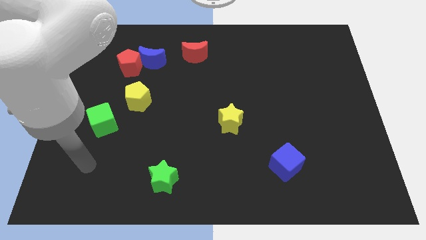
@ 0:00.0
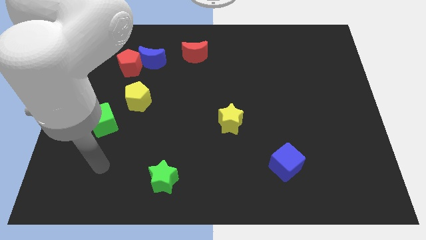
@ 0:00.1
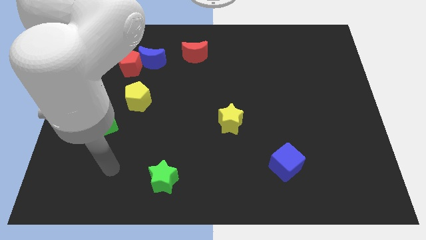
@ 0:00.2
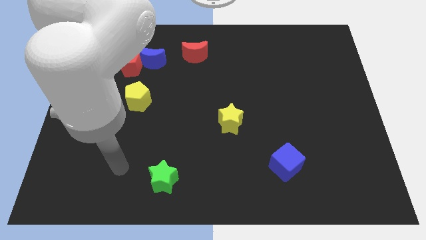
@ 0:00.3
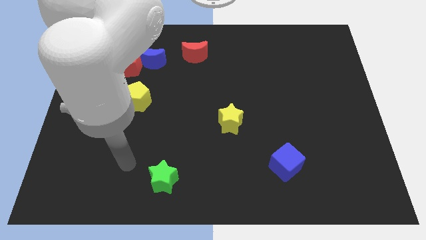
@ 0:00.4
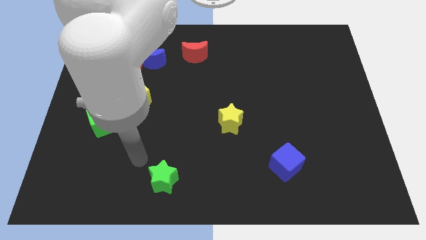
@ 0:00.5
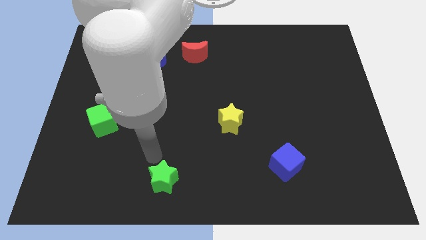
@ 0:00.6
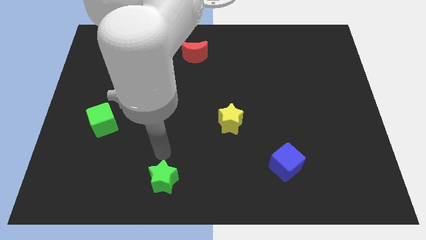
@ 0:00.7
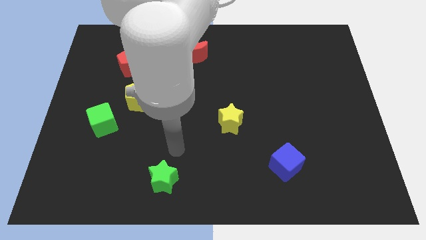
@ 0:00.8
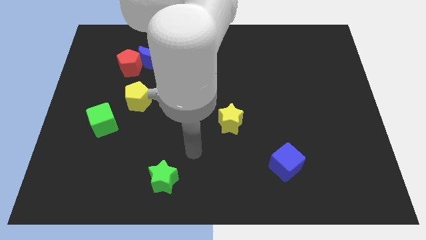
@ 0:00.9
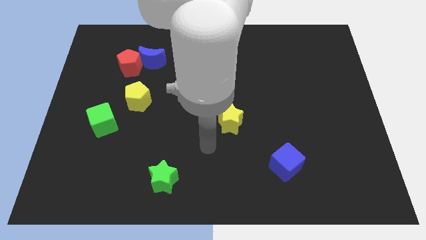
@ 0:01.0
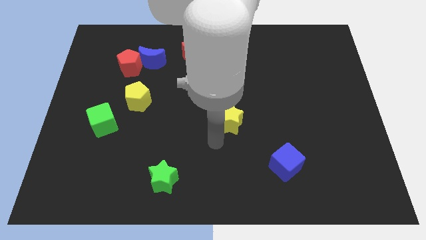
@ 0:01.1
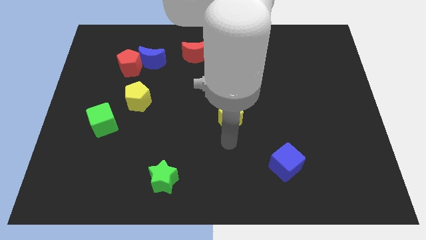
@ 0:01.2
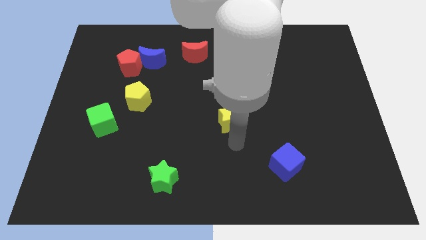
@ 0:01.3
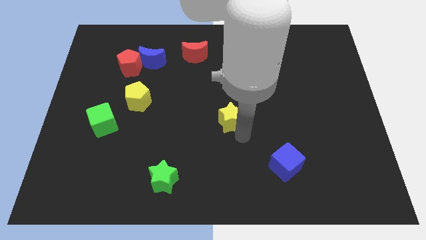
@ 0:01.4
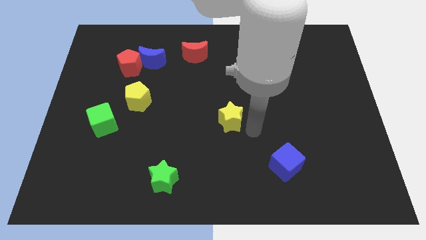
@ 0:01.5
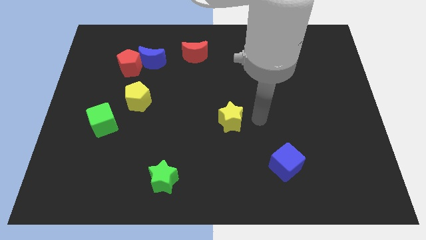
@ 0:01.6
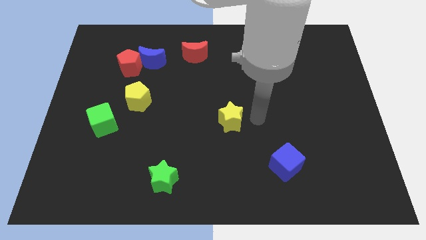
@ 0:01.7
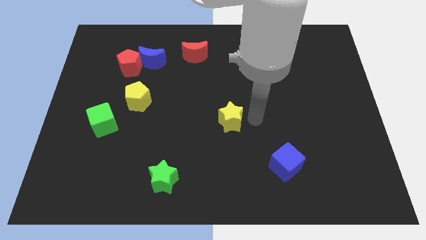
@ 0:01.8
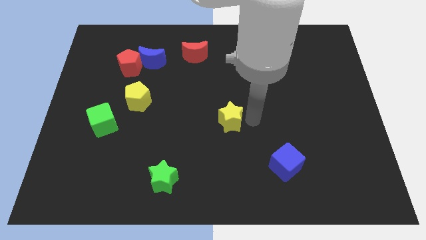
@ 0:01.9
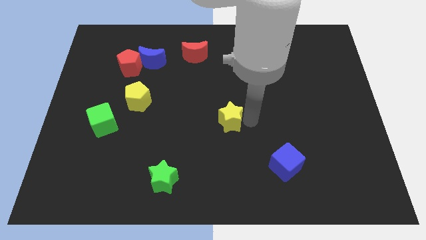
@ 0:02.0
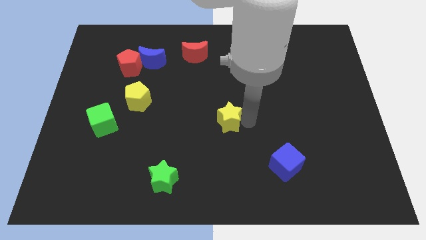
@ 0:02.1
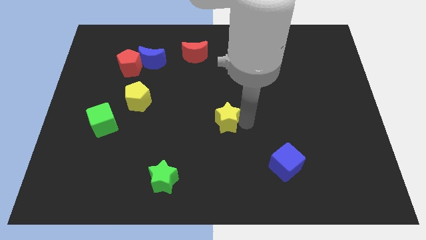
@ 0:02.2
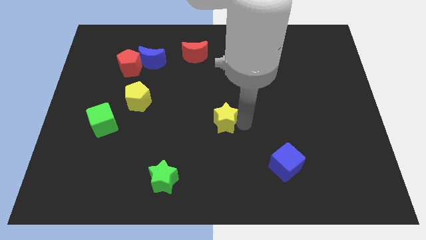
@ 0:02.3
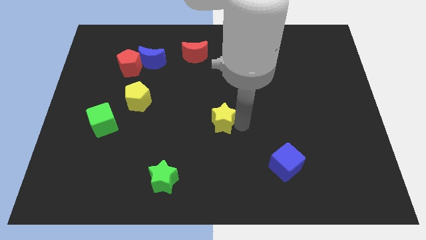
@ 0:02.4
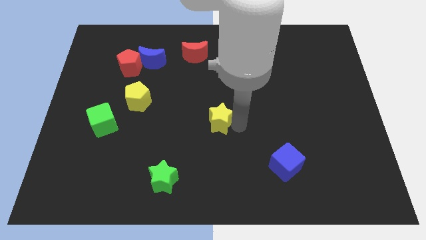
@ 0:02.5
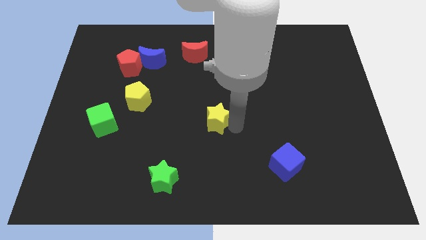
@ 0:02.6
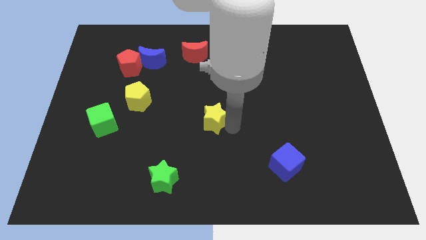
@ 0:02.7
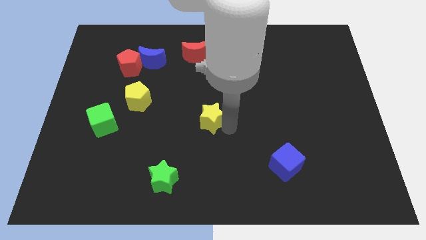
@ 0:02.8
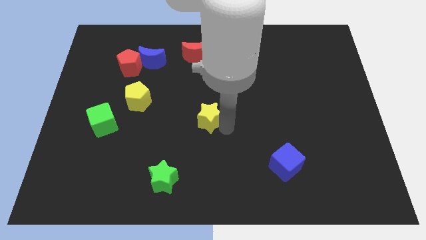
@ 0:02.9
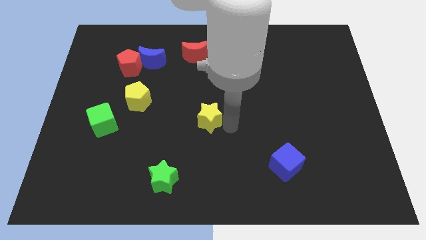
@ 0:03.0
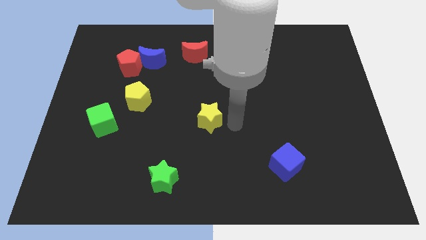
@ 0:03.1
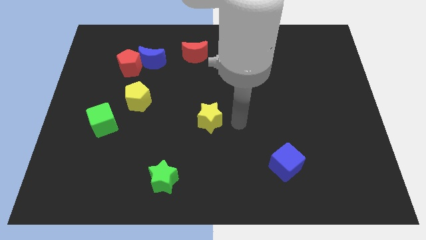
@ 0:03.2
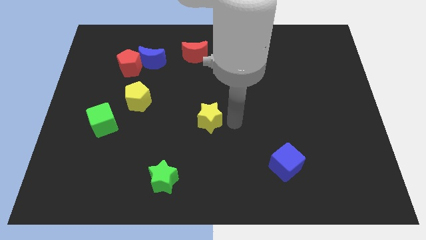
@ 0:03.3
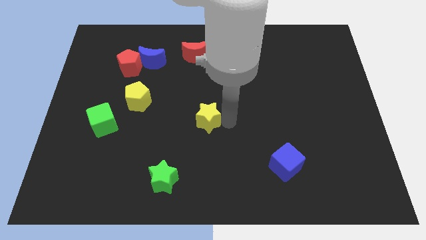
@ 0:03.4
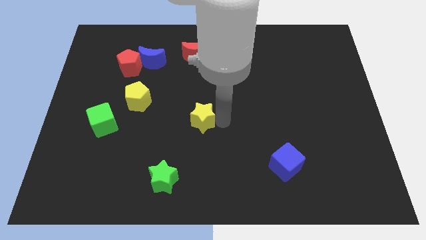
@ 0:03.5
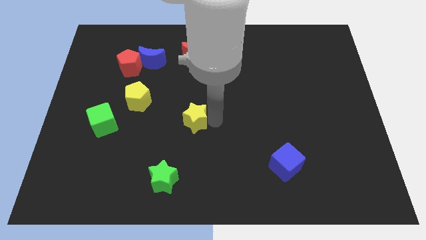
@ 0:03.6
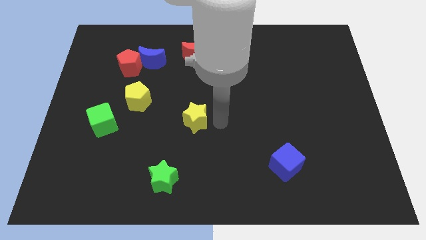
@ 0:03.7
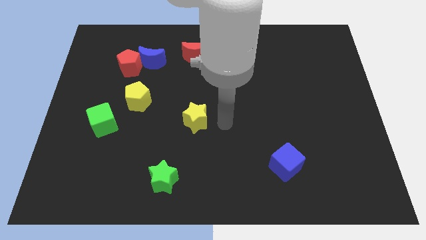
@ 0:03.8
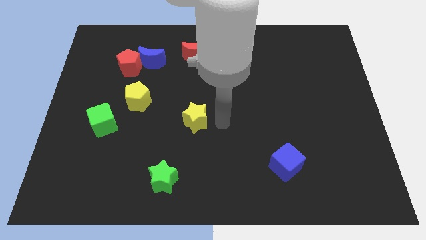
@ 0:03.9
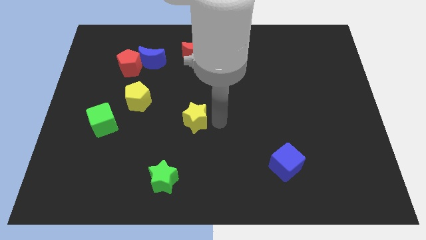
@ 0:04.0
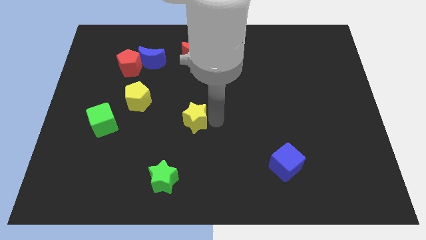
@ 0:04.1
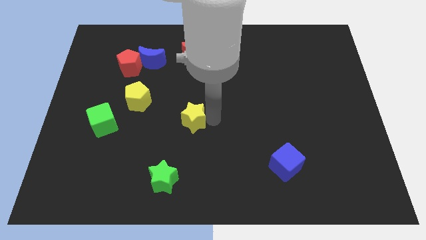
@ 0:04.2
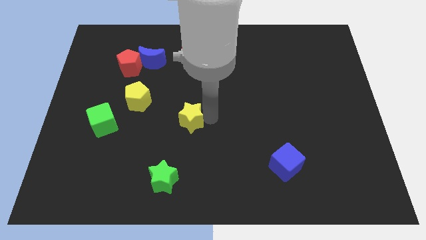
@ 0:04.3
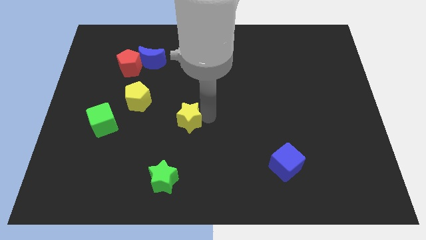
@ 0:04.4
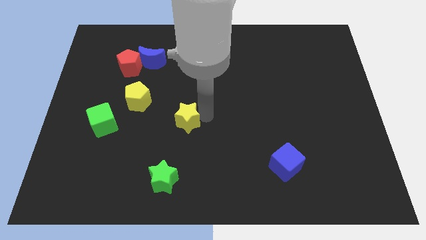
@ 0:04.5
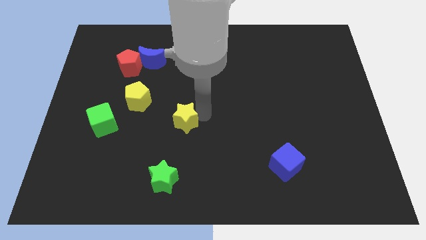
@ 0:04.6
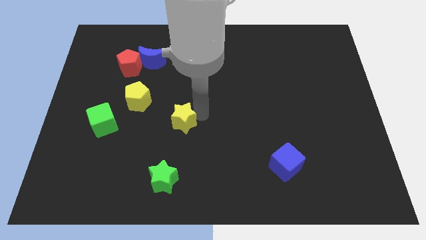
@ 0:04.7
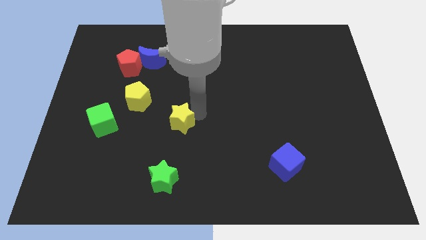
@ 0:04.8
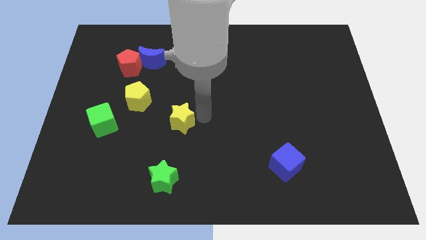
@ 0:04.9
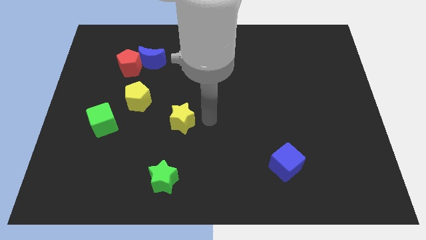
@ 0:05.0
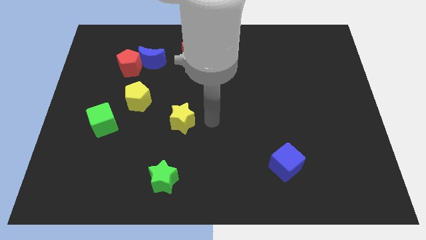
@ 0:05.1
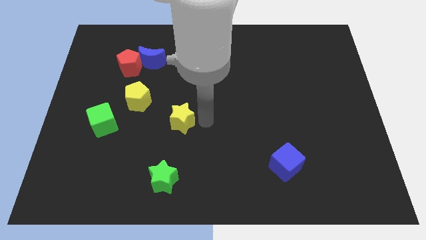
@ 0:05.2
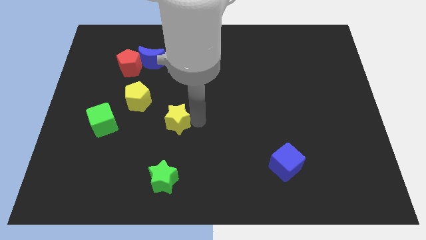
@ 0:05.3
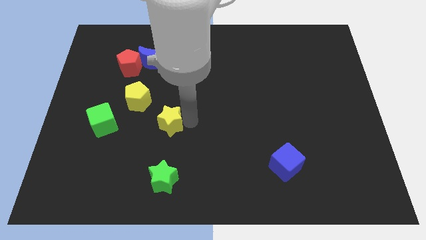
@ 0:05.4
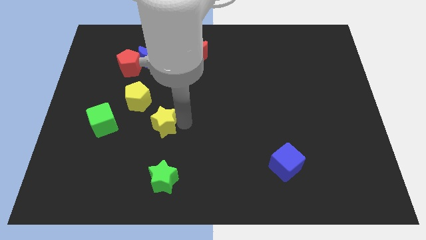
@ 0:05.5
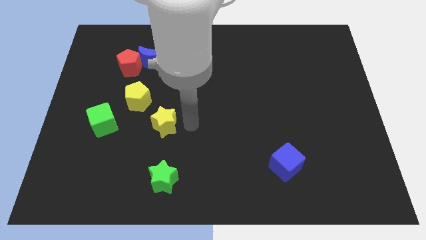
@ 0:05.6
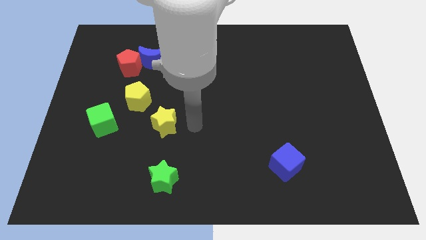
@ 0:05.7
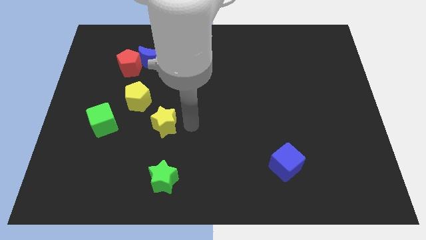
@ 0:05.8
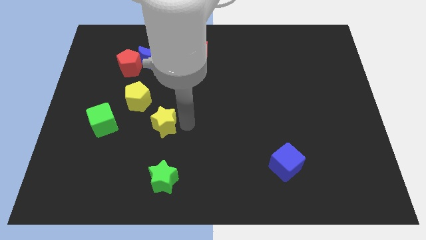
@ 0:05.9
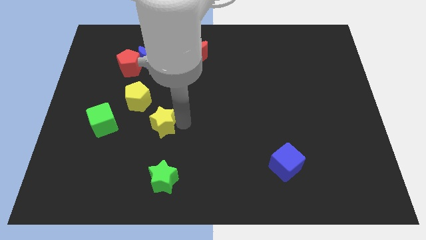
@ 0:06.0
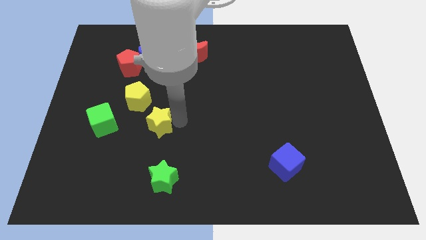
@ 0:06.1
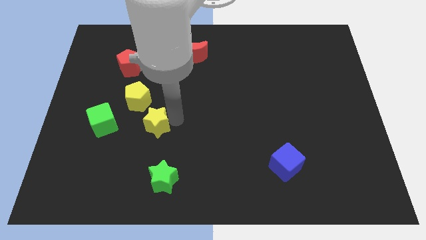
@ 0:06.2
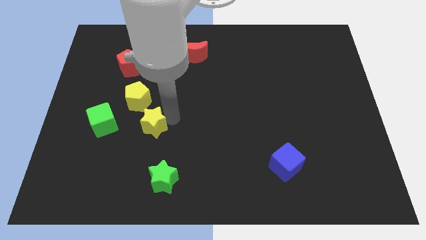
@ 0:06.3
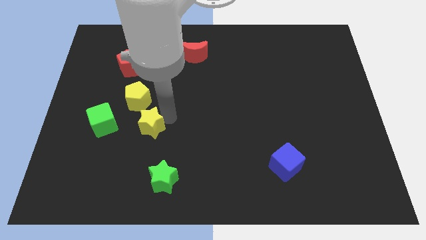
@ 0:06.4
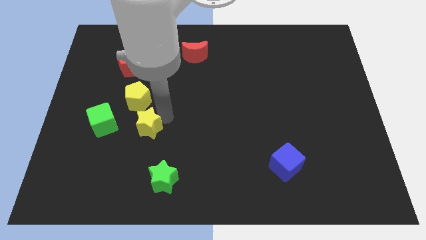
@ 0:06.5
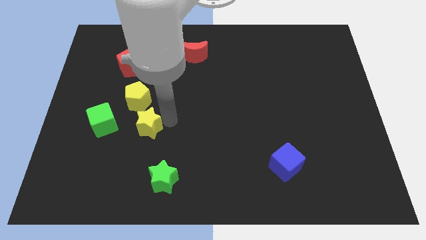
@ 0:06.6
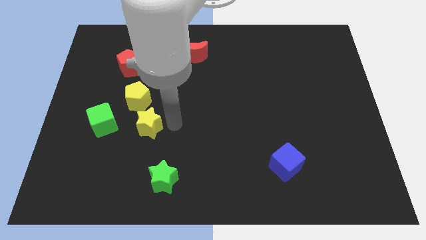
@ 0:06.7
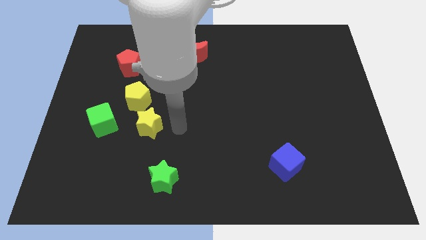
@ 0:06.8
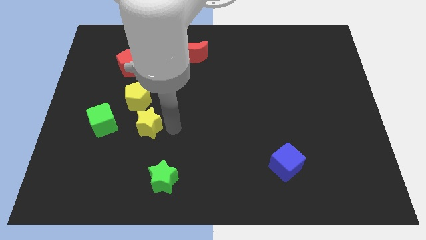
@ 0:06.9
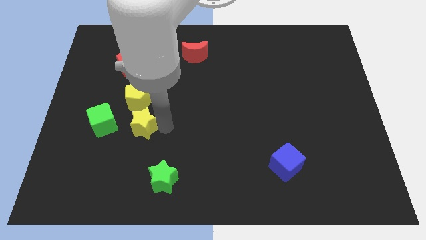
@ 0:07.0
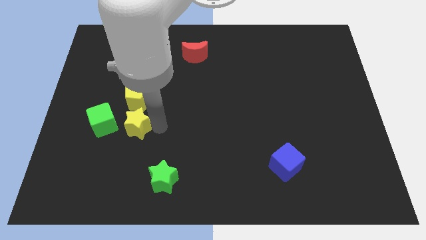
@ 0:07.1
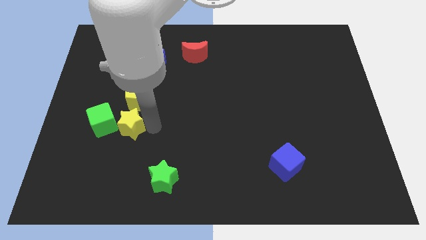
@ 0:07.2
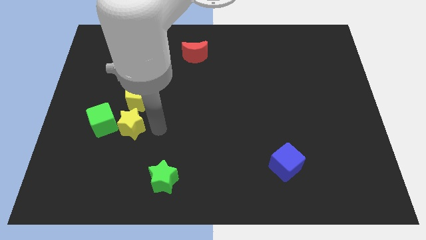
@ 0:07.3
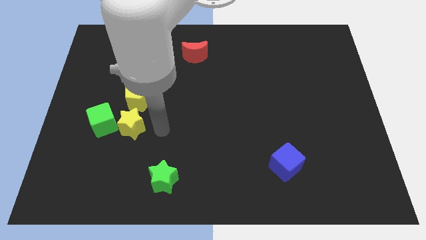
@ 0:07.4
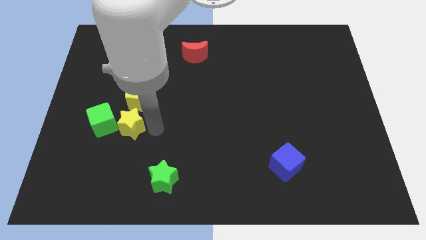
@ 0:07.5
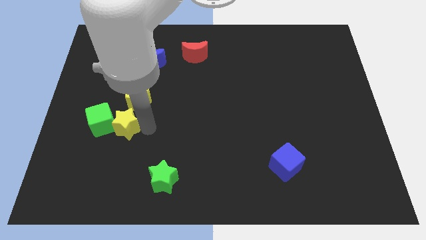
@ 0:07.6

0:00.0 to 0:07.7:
put the yellow star next to the green cube
